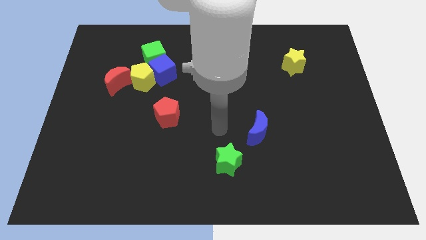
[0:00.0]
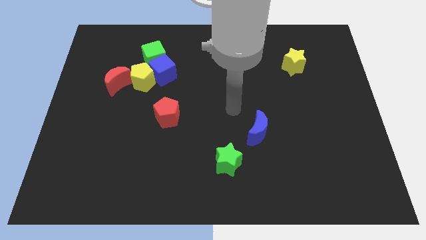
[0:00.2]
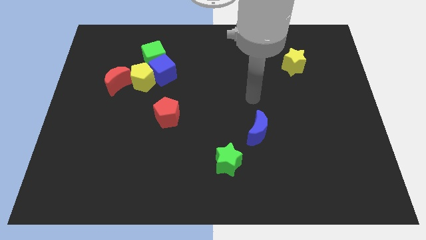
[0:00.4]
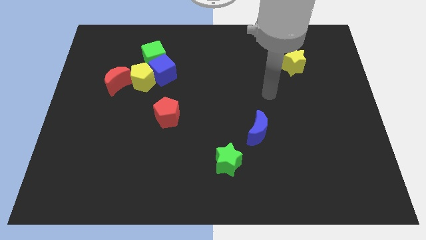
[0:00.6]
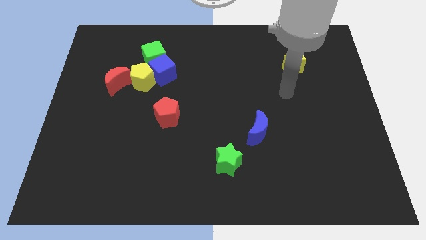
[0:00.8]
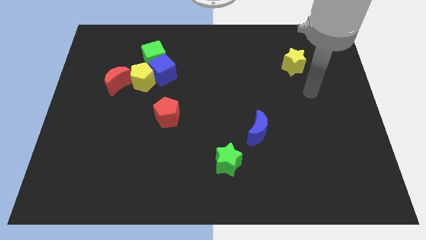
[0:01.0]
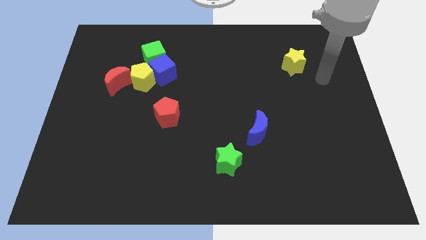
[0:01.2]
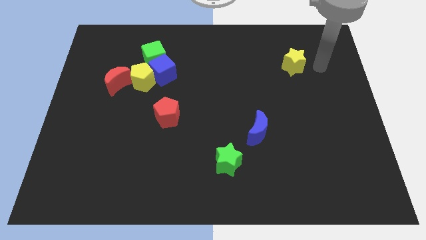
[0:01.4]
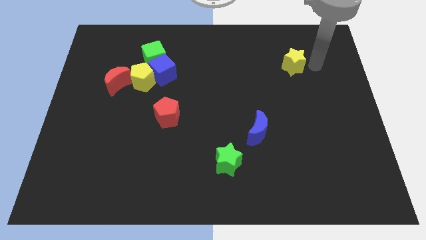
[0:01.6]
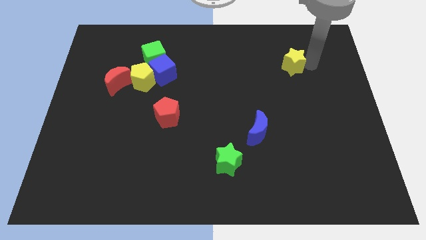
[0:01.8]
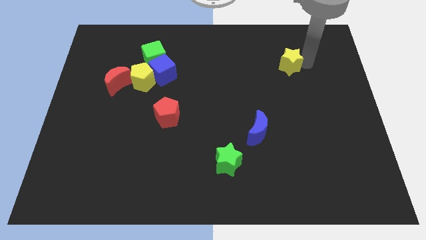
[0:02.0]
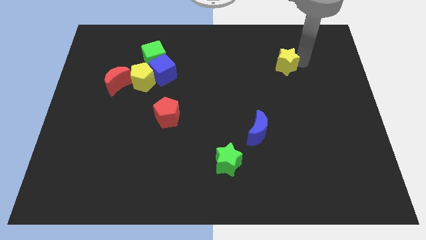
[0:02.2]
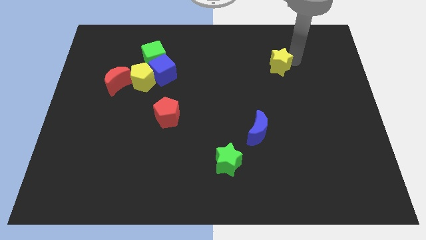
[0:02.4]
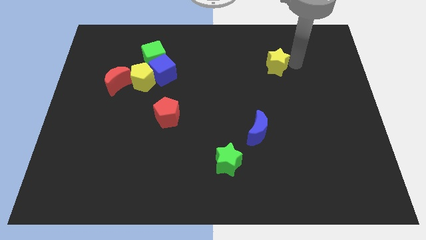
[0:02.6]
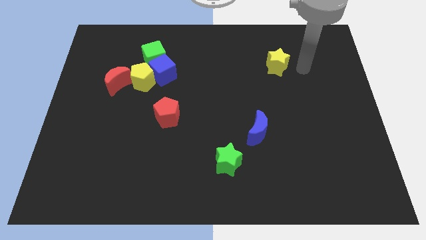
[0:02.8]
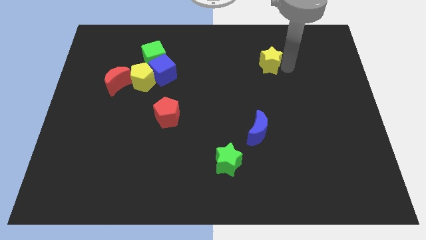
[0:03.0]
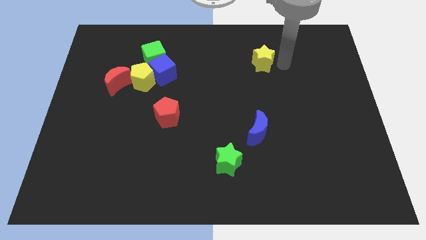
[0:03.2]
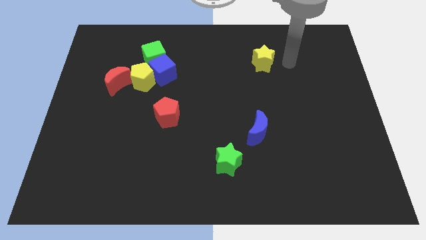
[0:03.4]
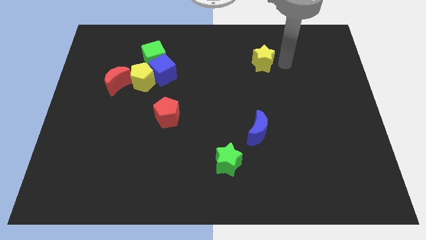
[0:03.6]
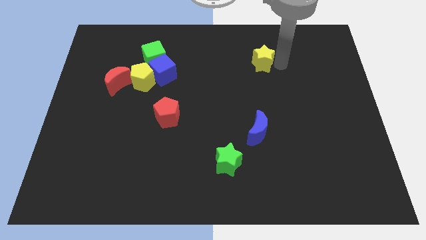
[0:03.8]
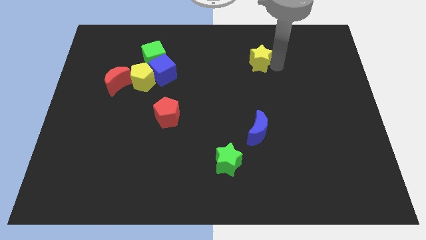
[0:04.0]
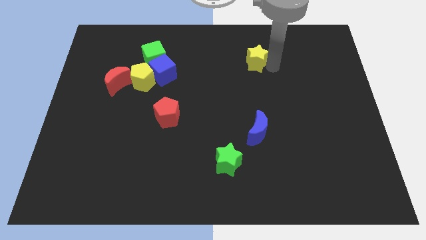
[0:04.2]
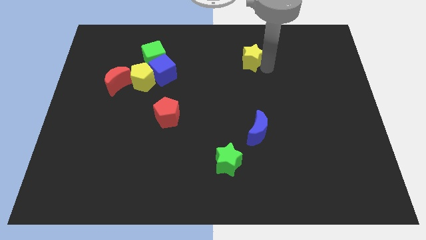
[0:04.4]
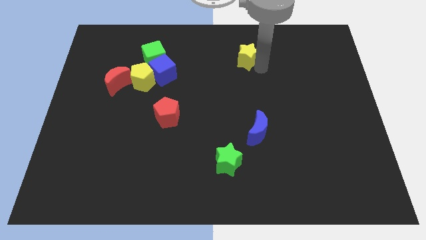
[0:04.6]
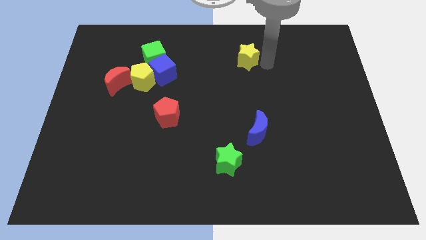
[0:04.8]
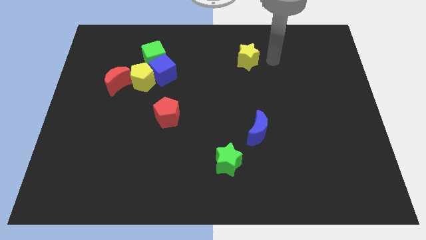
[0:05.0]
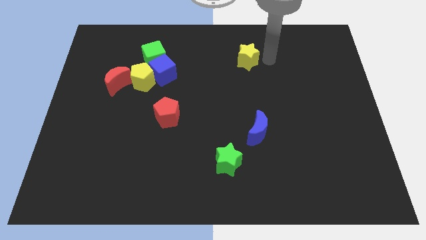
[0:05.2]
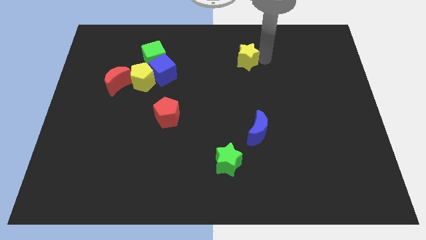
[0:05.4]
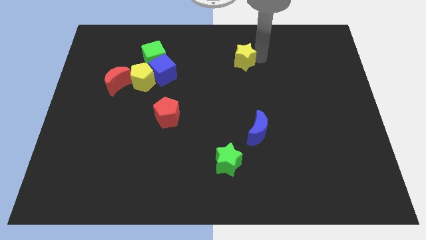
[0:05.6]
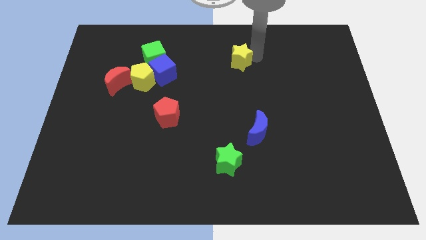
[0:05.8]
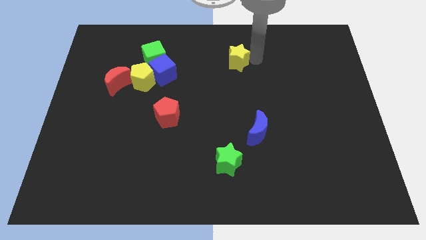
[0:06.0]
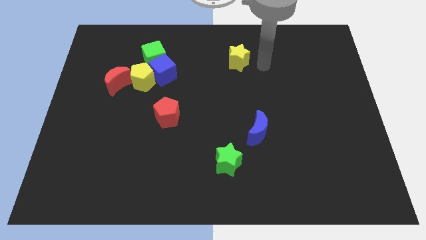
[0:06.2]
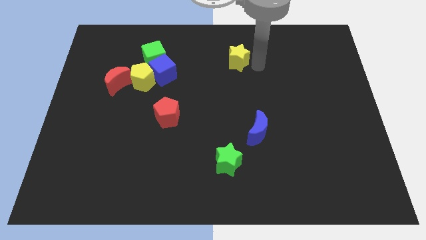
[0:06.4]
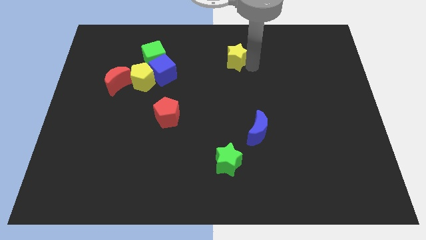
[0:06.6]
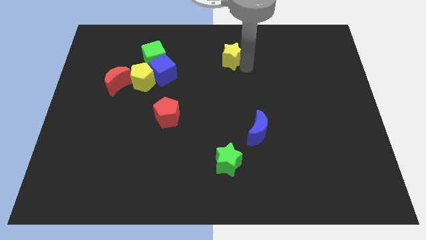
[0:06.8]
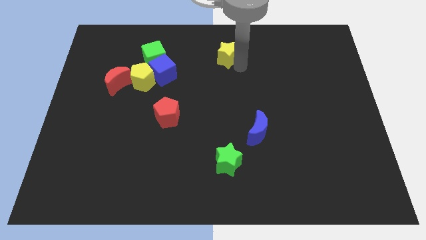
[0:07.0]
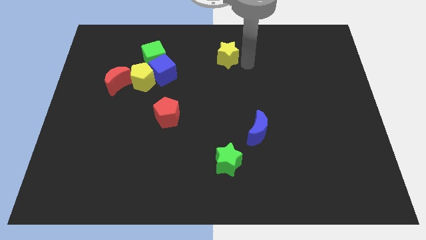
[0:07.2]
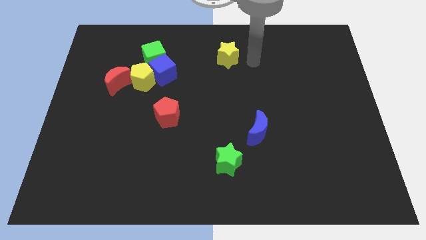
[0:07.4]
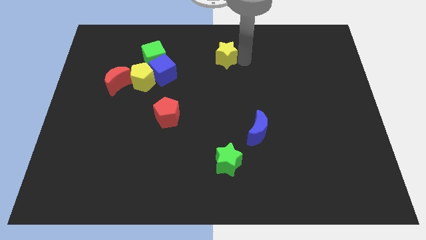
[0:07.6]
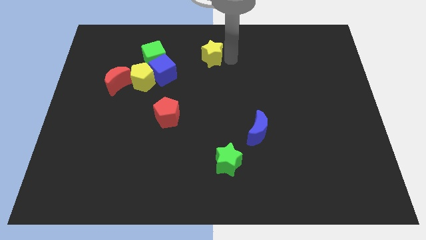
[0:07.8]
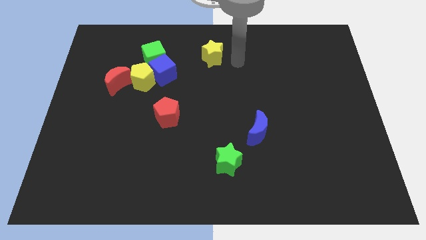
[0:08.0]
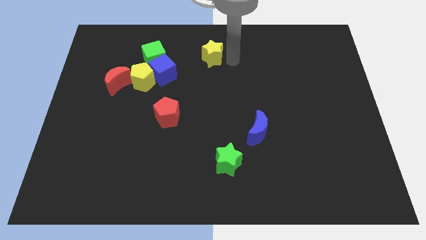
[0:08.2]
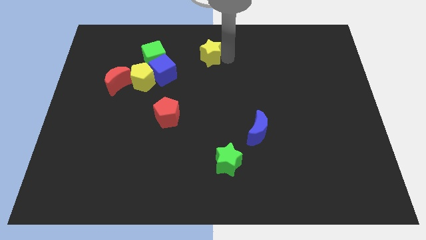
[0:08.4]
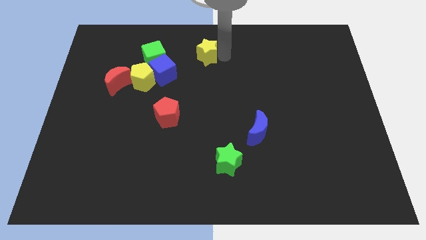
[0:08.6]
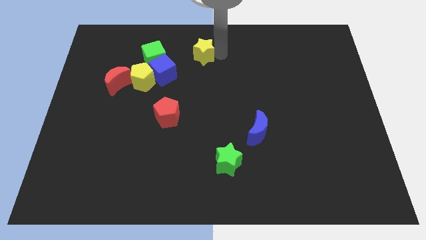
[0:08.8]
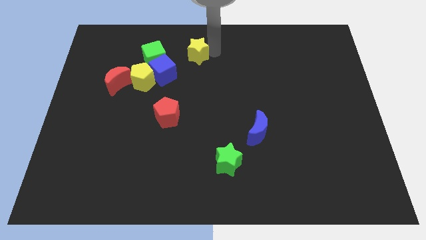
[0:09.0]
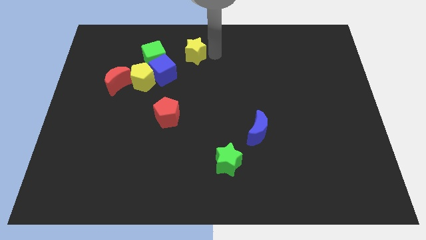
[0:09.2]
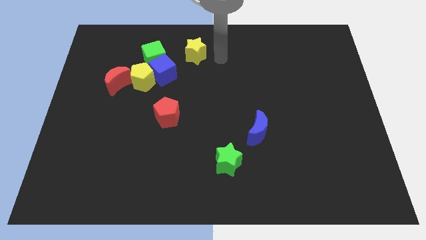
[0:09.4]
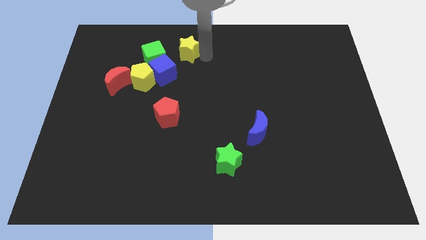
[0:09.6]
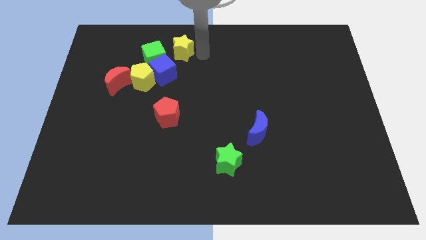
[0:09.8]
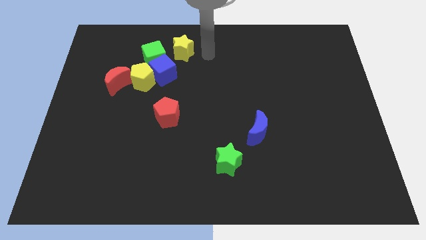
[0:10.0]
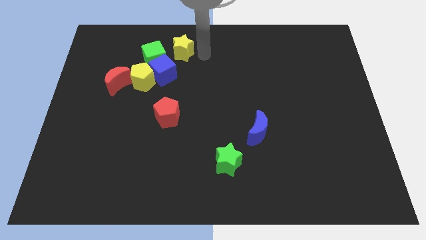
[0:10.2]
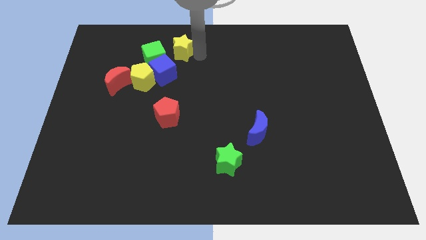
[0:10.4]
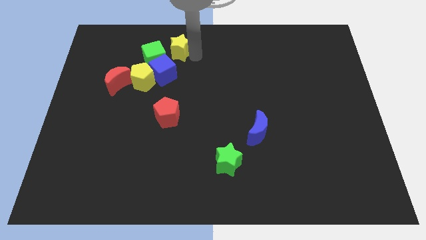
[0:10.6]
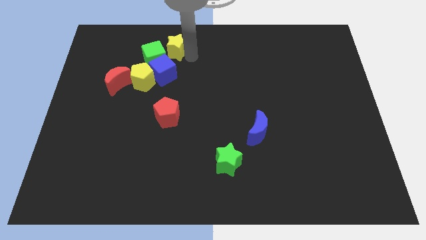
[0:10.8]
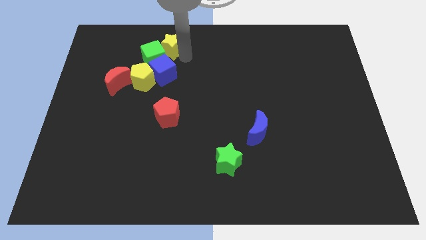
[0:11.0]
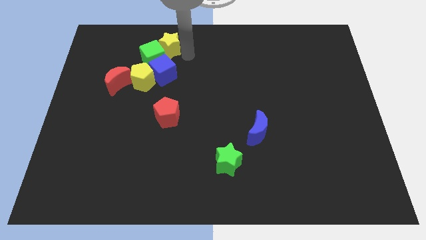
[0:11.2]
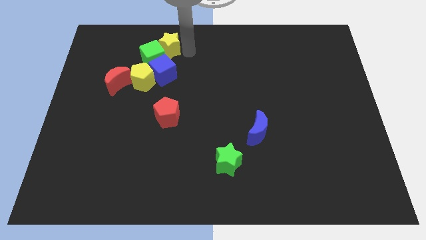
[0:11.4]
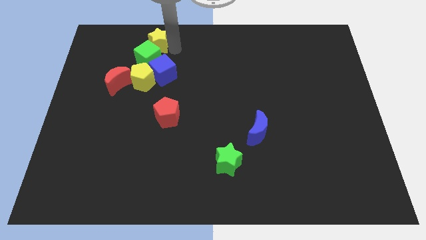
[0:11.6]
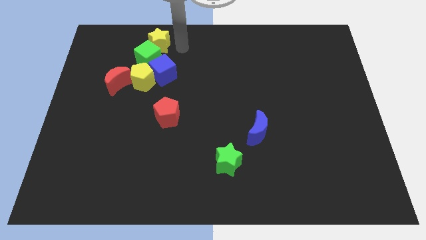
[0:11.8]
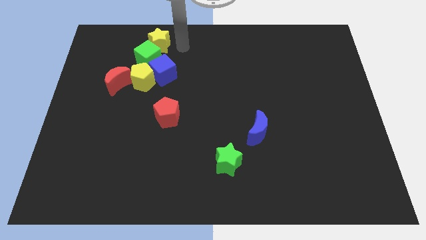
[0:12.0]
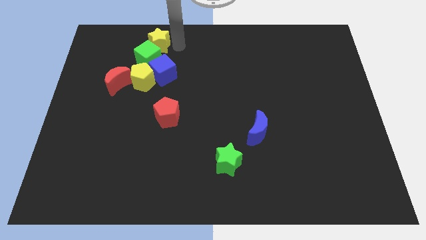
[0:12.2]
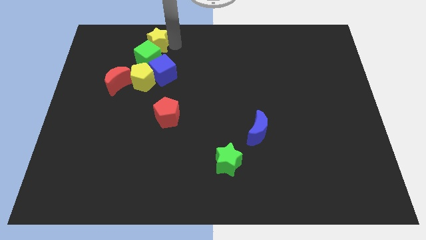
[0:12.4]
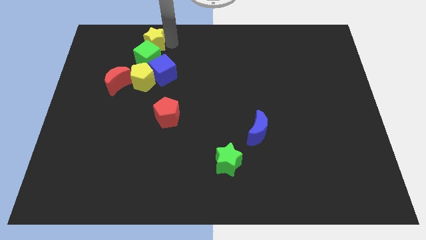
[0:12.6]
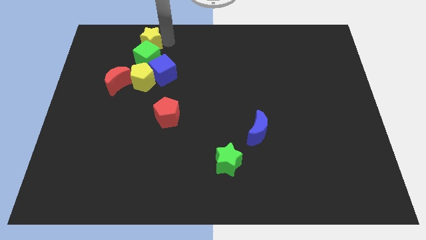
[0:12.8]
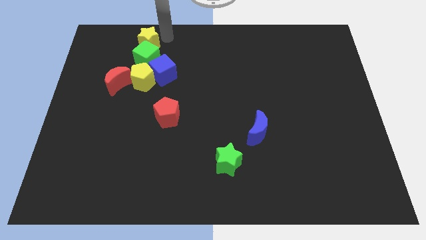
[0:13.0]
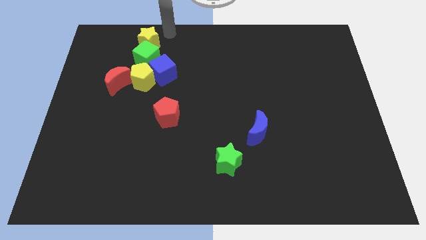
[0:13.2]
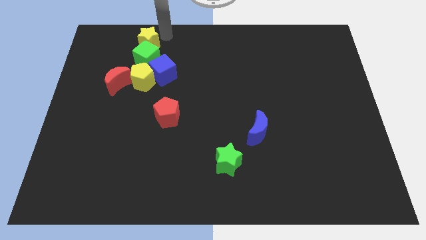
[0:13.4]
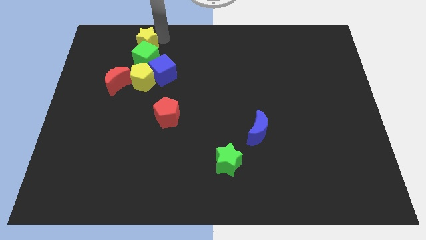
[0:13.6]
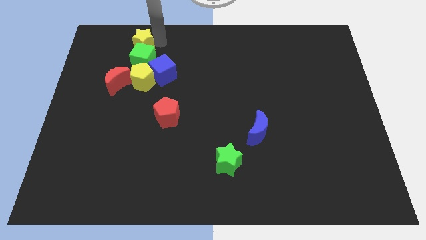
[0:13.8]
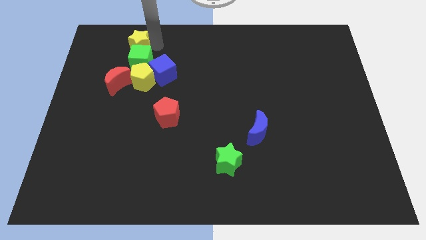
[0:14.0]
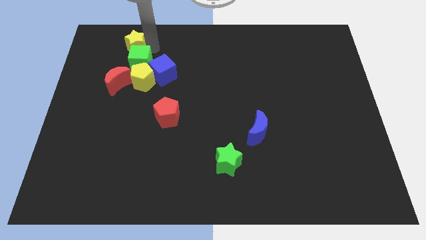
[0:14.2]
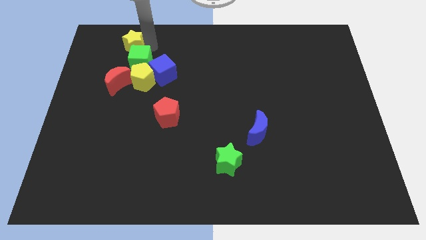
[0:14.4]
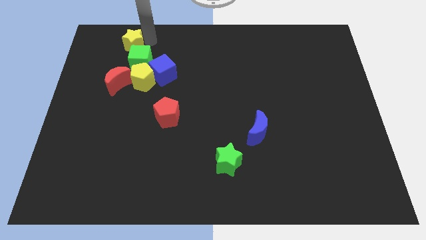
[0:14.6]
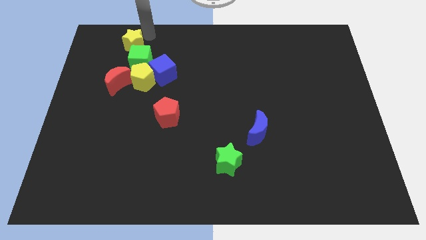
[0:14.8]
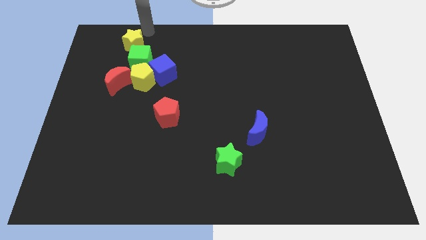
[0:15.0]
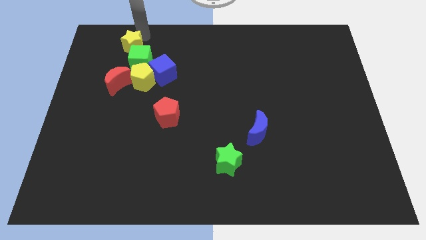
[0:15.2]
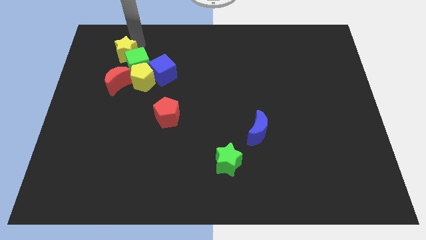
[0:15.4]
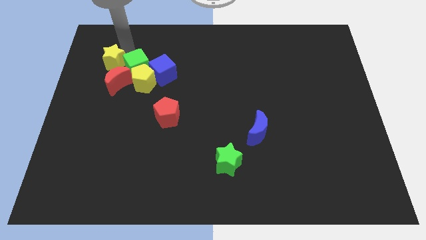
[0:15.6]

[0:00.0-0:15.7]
put the yellow star to the top left of the red moon
